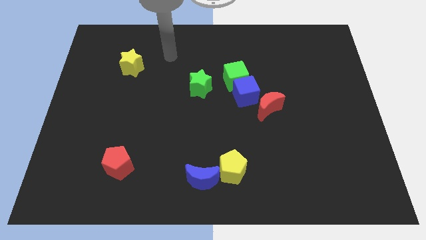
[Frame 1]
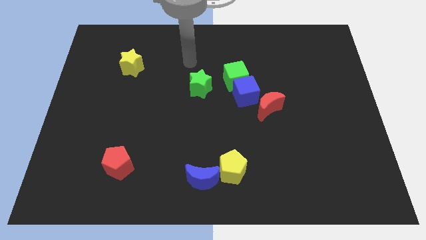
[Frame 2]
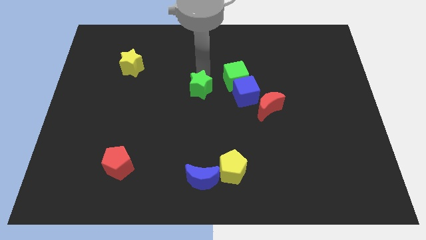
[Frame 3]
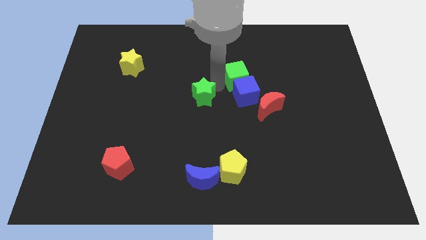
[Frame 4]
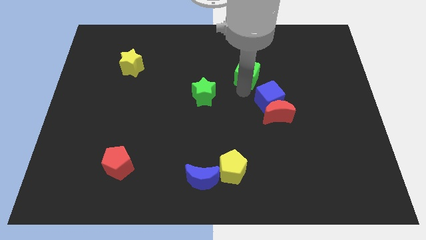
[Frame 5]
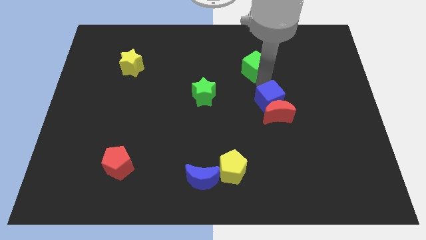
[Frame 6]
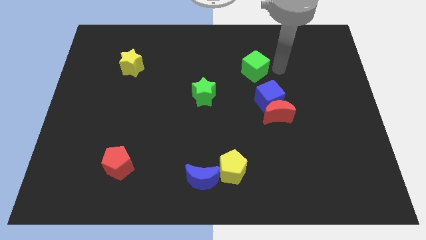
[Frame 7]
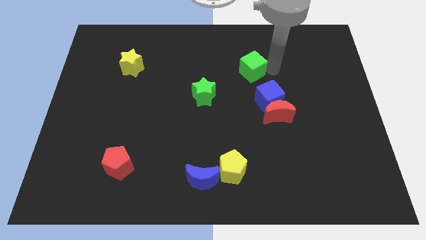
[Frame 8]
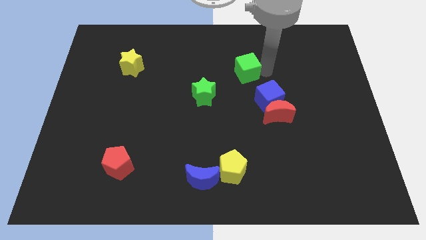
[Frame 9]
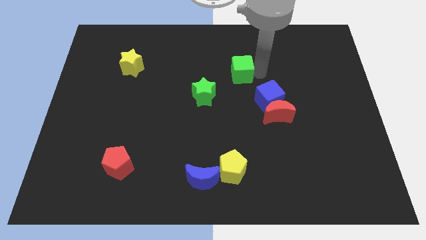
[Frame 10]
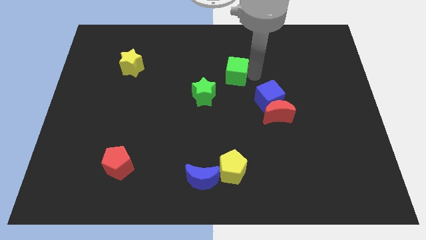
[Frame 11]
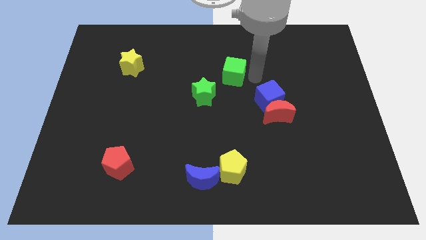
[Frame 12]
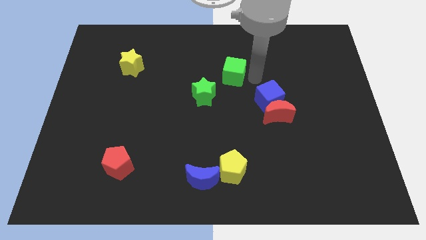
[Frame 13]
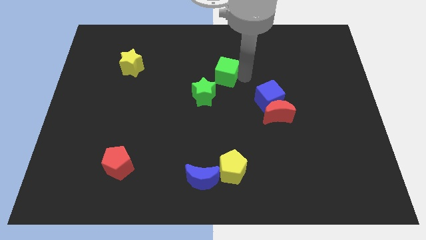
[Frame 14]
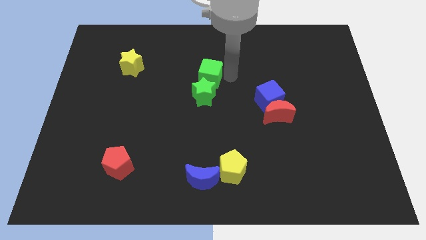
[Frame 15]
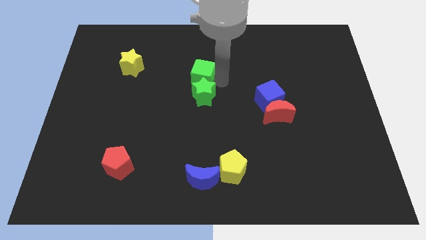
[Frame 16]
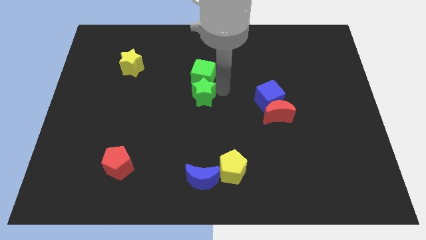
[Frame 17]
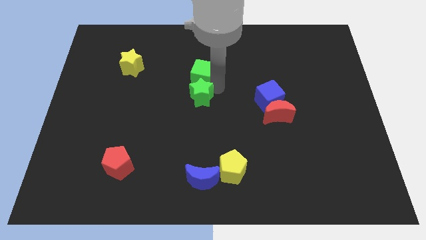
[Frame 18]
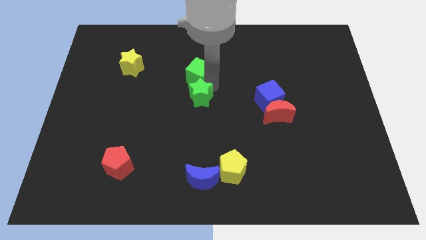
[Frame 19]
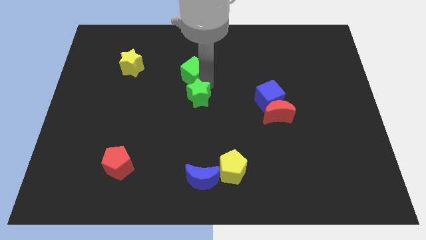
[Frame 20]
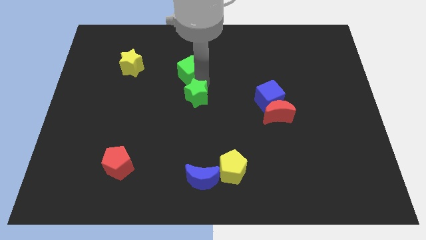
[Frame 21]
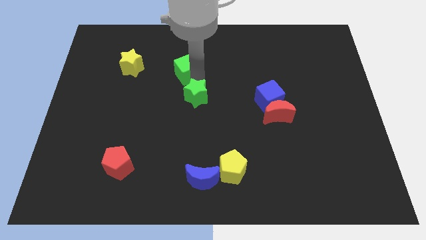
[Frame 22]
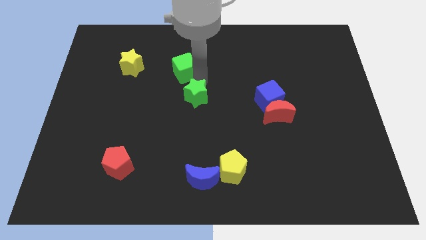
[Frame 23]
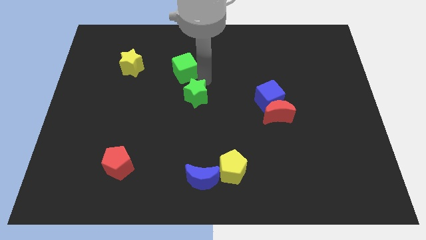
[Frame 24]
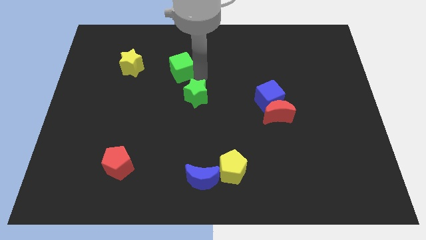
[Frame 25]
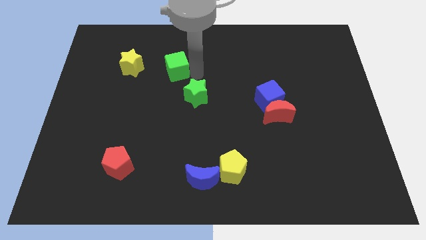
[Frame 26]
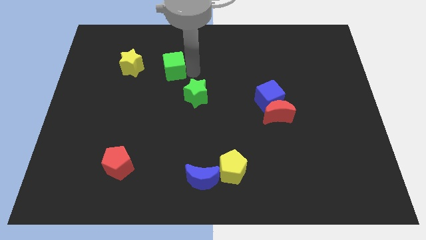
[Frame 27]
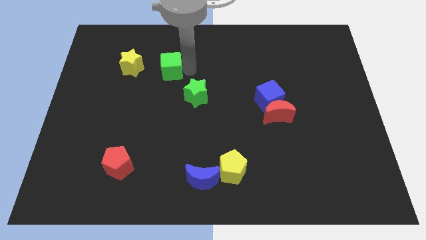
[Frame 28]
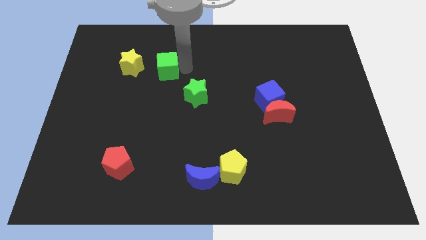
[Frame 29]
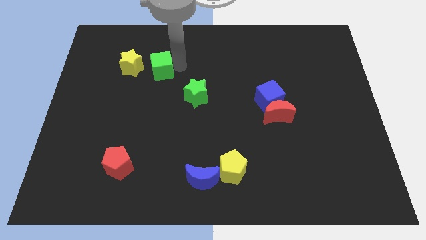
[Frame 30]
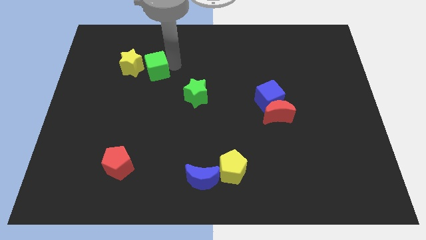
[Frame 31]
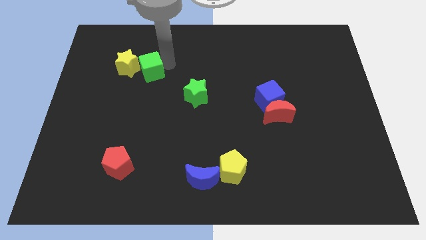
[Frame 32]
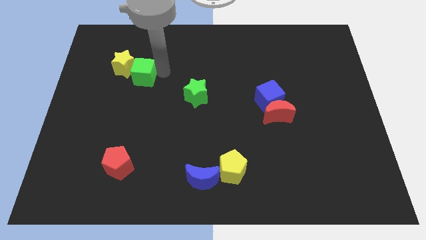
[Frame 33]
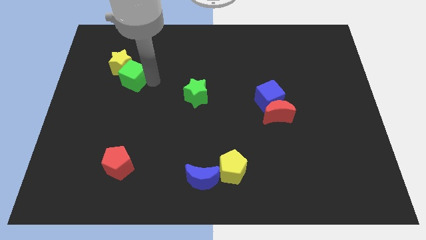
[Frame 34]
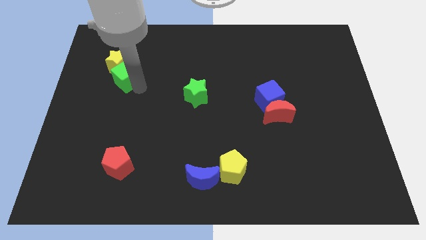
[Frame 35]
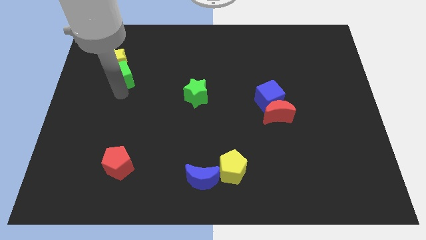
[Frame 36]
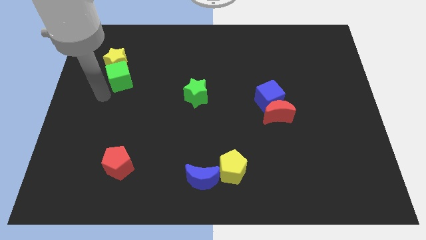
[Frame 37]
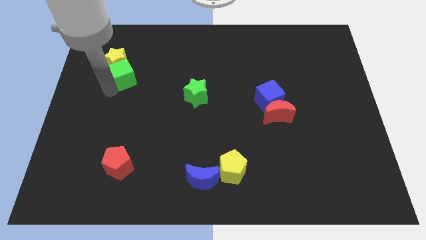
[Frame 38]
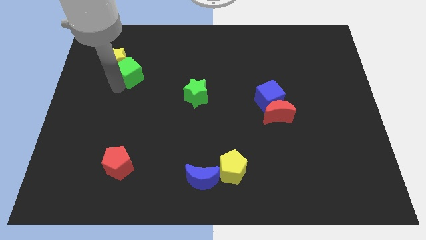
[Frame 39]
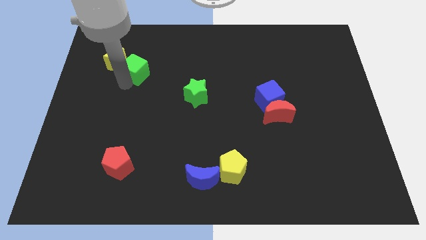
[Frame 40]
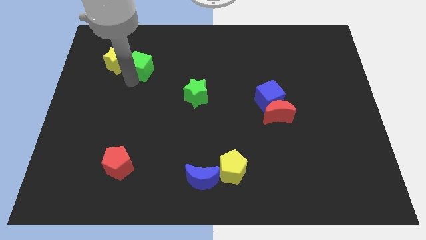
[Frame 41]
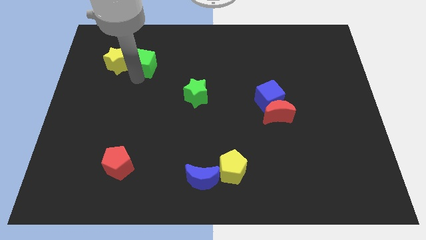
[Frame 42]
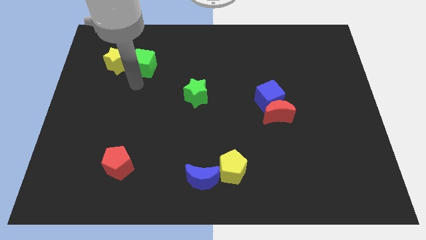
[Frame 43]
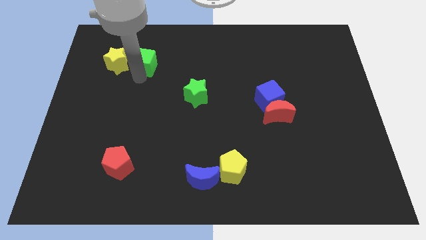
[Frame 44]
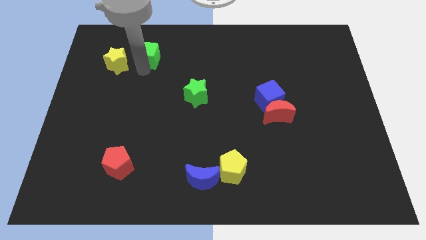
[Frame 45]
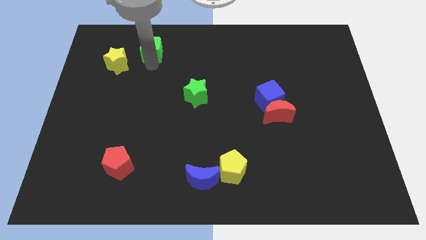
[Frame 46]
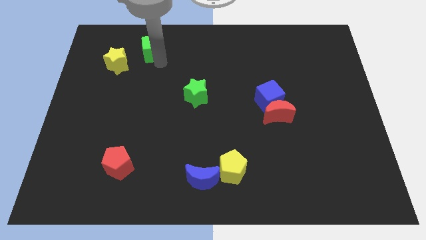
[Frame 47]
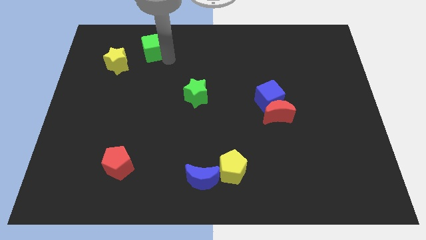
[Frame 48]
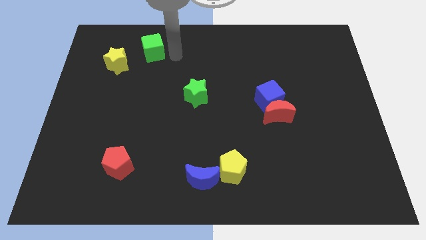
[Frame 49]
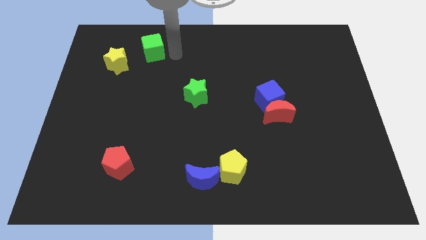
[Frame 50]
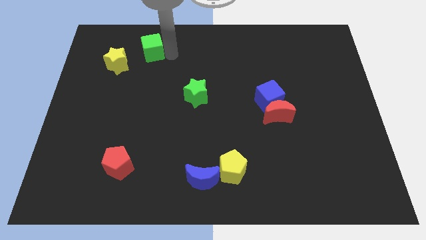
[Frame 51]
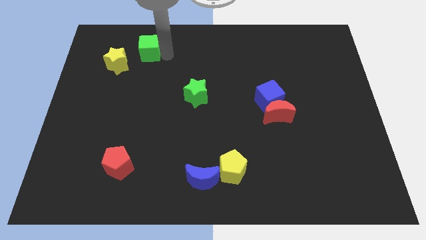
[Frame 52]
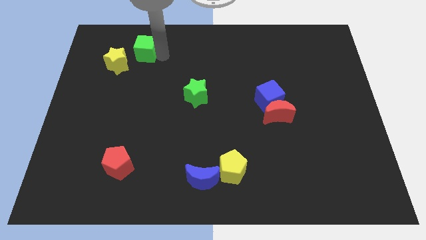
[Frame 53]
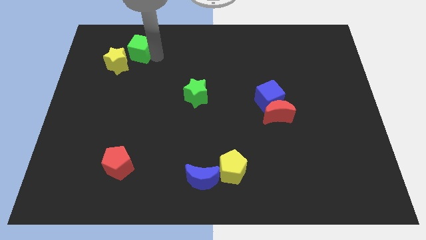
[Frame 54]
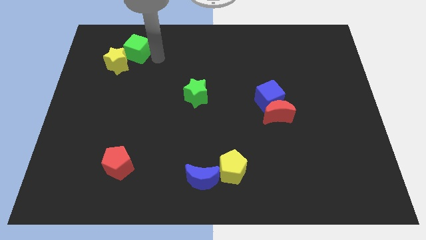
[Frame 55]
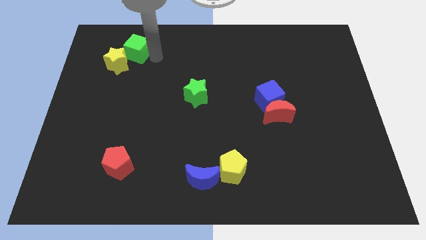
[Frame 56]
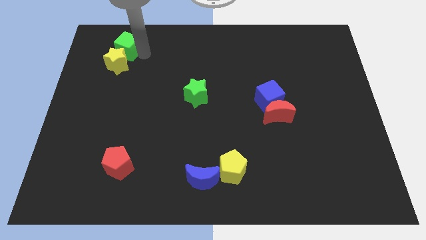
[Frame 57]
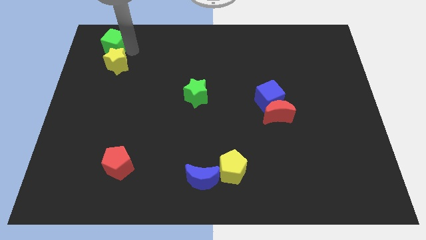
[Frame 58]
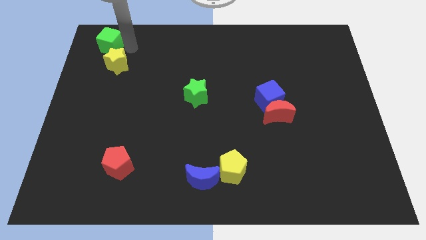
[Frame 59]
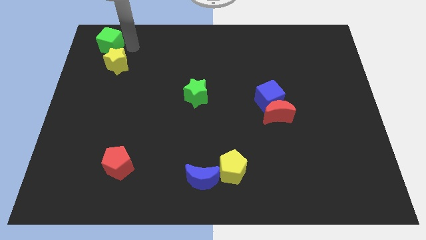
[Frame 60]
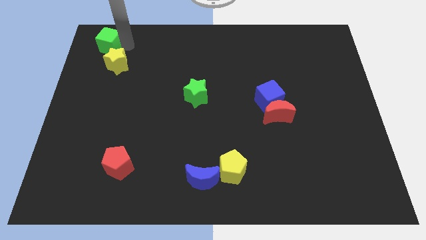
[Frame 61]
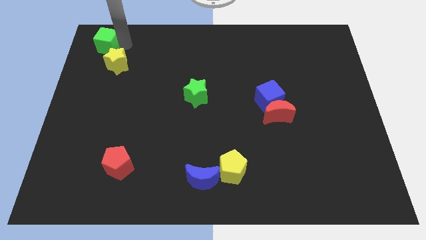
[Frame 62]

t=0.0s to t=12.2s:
move the green cube to the upper left corner
